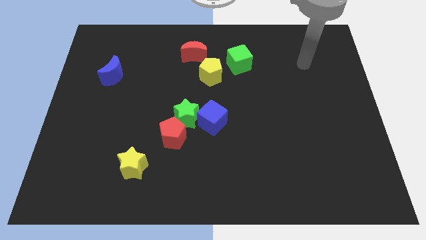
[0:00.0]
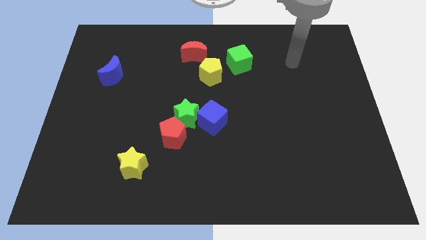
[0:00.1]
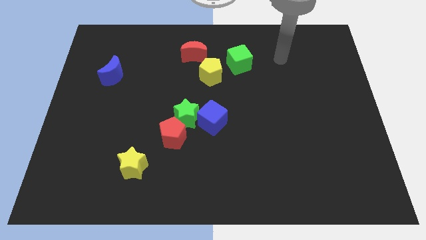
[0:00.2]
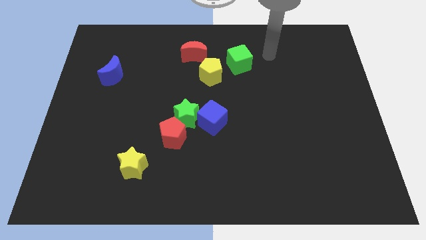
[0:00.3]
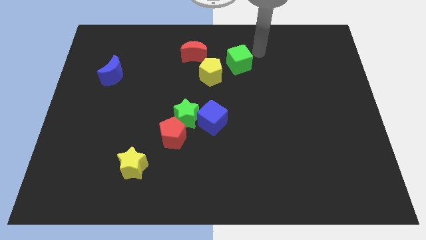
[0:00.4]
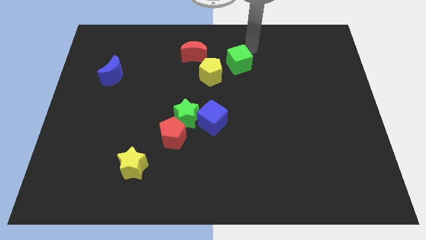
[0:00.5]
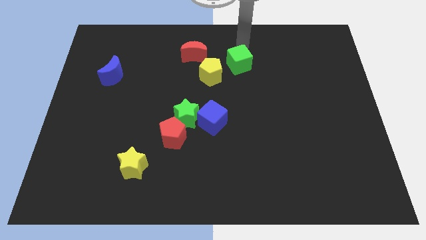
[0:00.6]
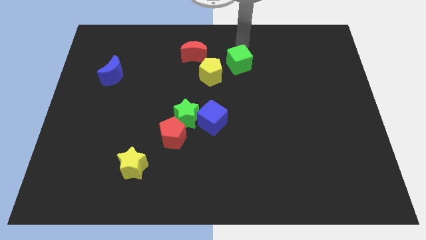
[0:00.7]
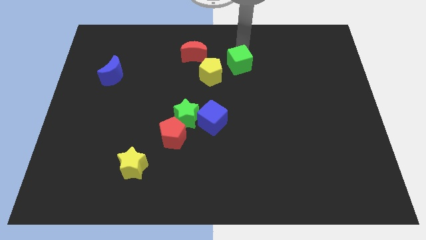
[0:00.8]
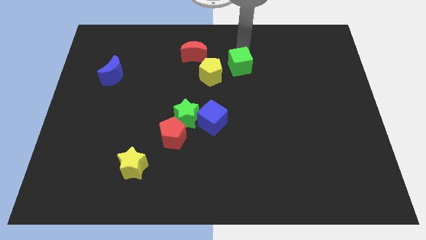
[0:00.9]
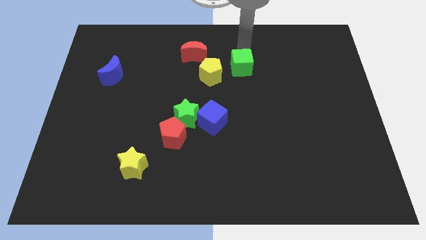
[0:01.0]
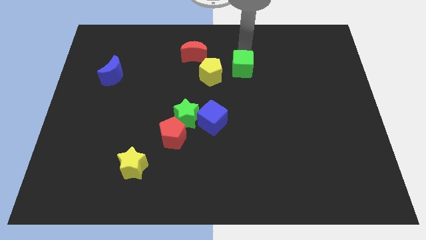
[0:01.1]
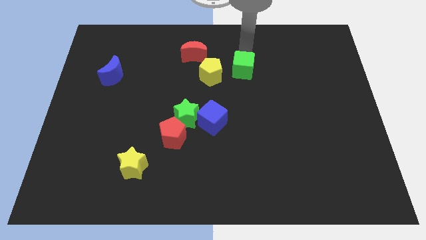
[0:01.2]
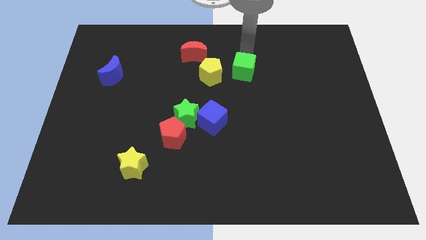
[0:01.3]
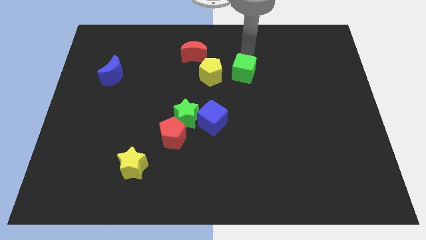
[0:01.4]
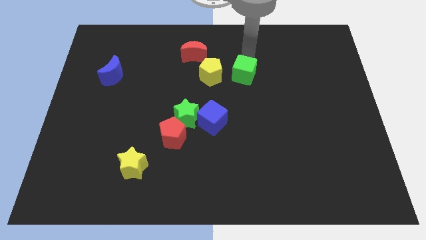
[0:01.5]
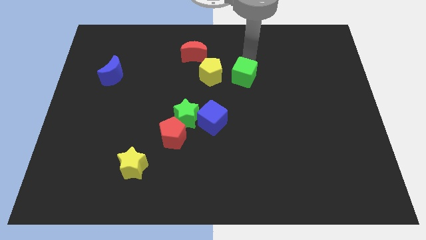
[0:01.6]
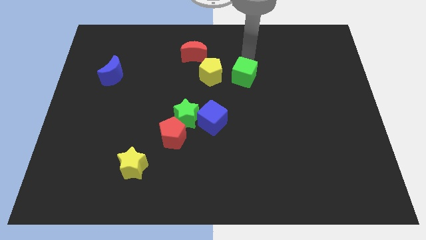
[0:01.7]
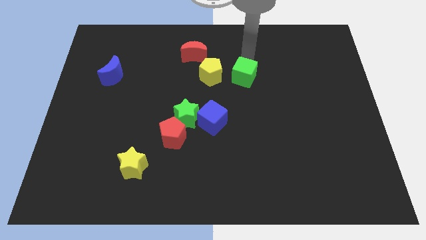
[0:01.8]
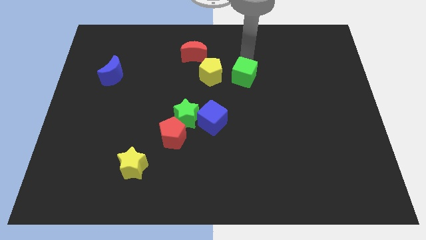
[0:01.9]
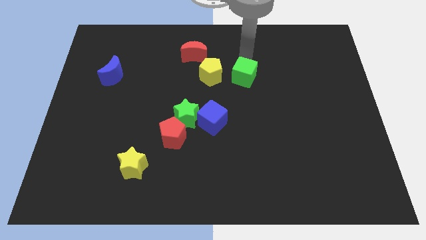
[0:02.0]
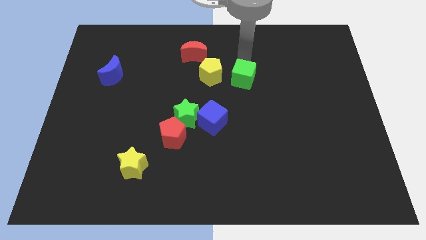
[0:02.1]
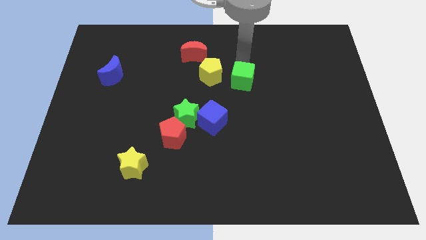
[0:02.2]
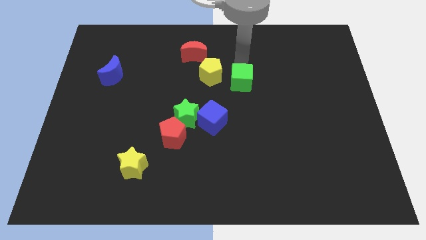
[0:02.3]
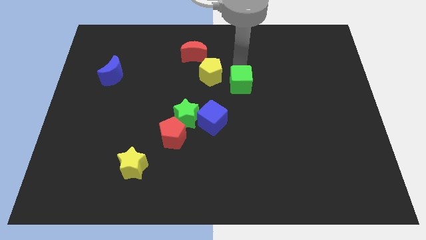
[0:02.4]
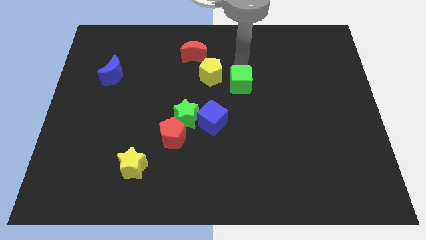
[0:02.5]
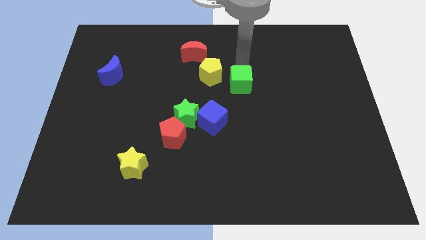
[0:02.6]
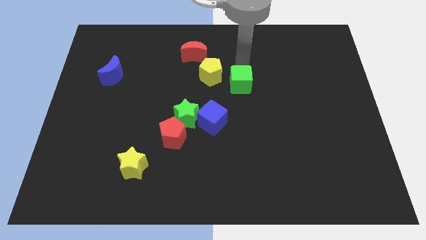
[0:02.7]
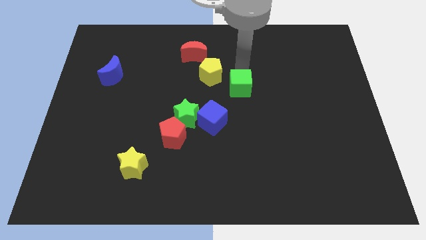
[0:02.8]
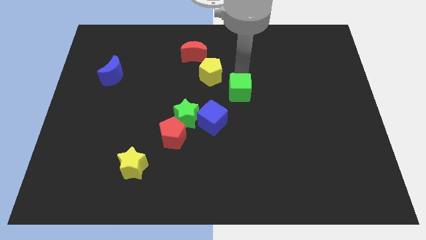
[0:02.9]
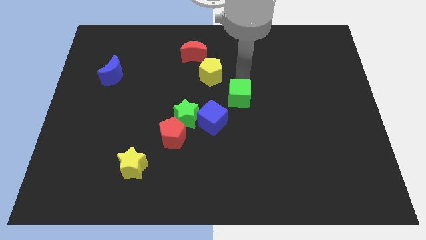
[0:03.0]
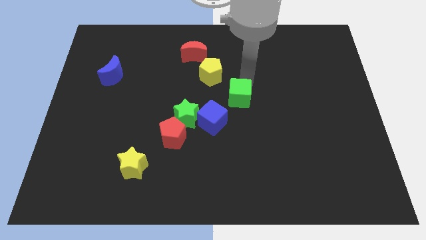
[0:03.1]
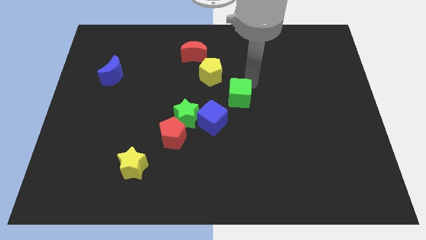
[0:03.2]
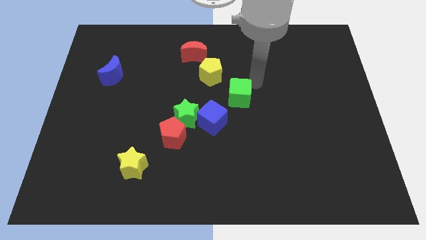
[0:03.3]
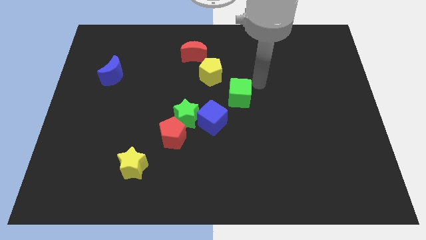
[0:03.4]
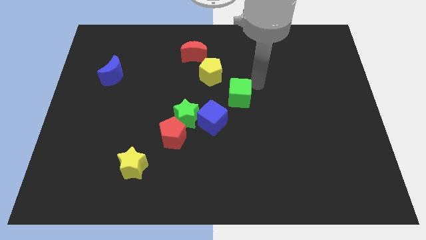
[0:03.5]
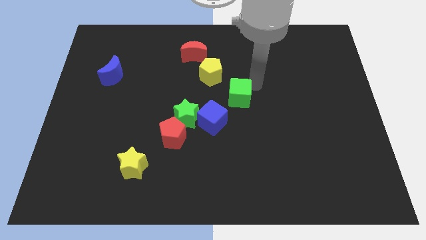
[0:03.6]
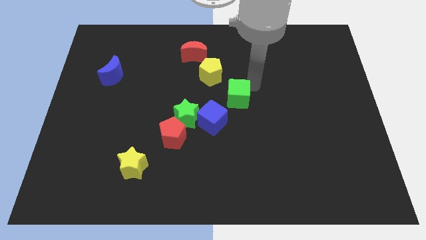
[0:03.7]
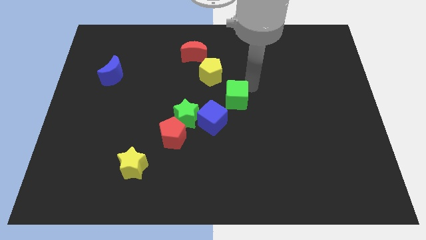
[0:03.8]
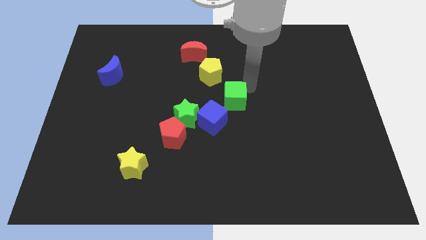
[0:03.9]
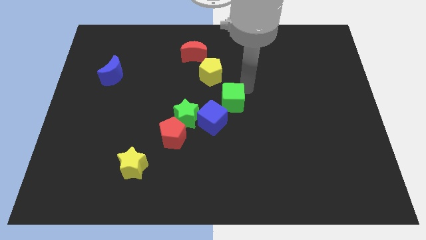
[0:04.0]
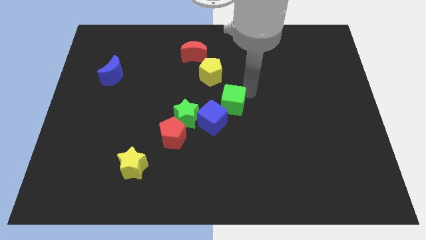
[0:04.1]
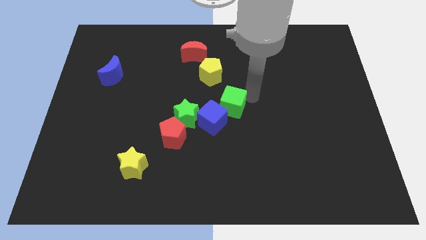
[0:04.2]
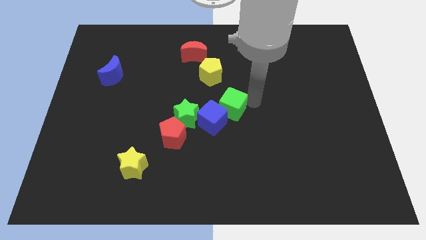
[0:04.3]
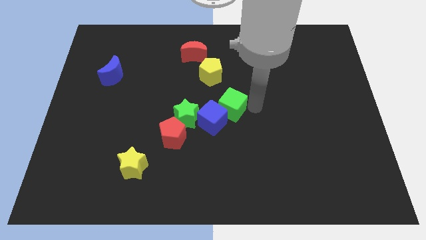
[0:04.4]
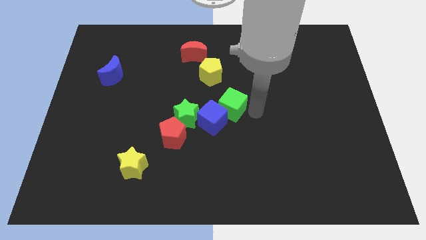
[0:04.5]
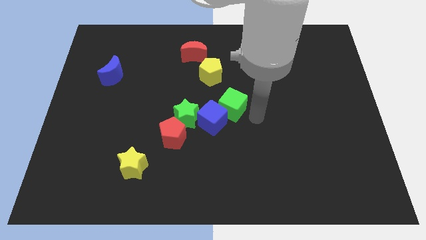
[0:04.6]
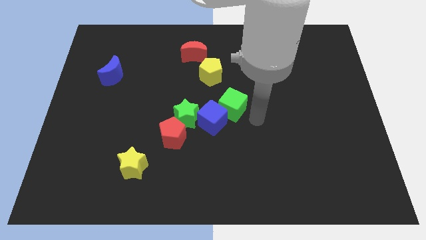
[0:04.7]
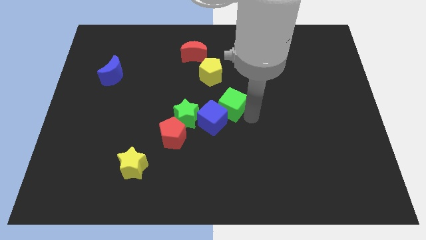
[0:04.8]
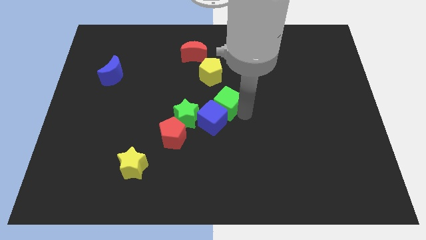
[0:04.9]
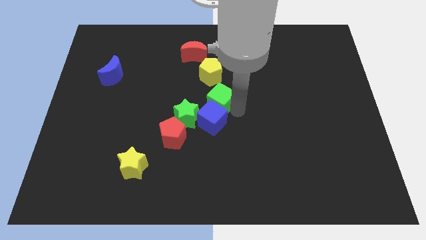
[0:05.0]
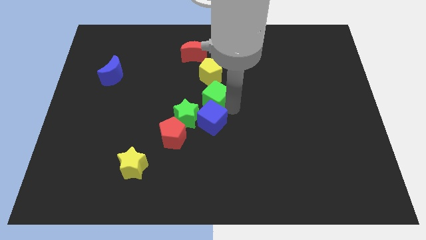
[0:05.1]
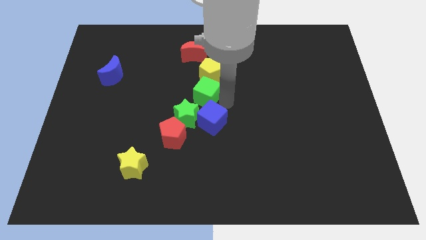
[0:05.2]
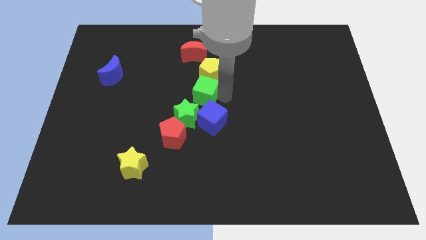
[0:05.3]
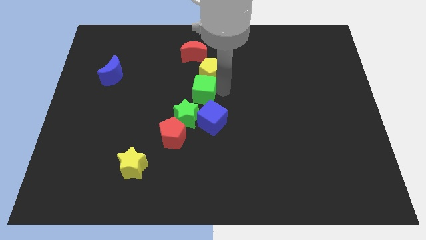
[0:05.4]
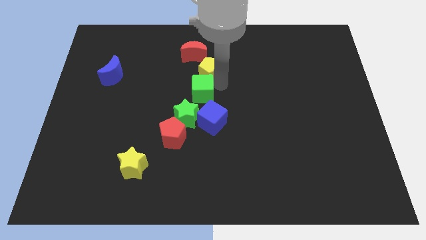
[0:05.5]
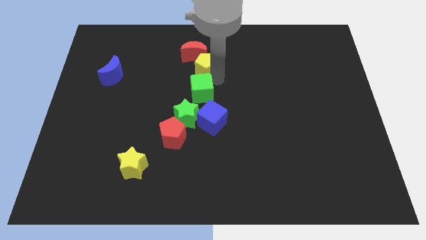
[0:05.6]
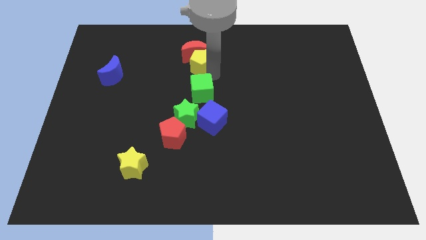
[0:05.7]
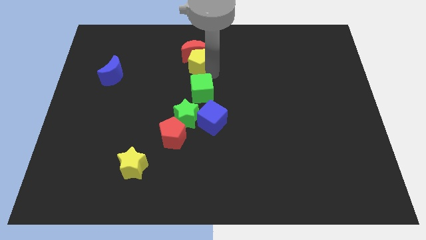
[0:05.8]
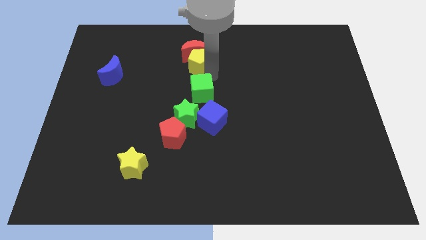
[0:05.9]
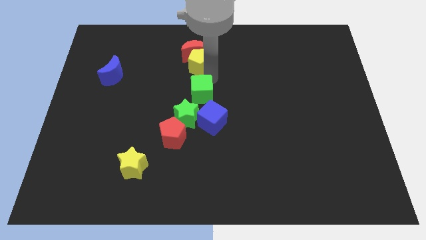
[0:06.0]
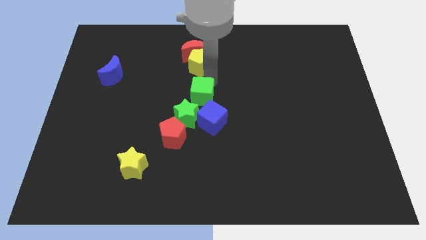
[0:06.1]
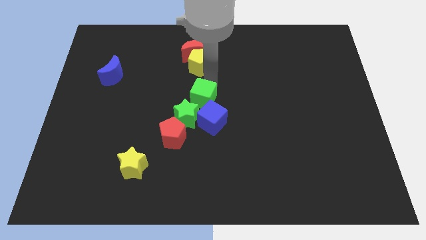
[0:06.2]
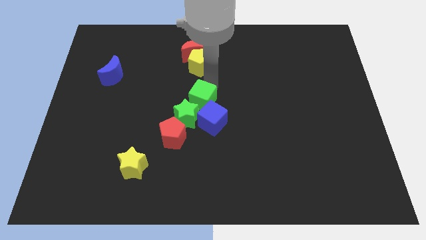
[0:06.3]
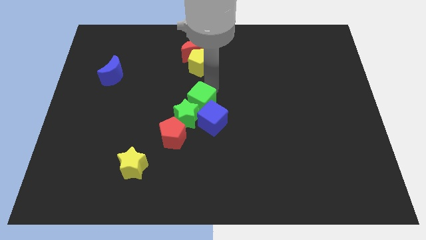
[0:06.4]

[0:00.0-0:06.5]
move the green cube to the green star

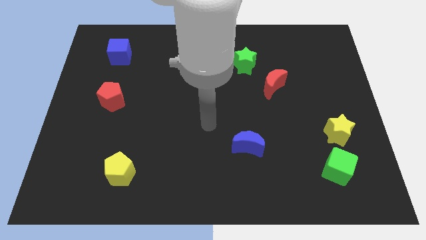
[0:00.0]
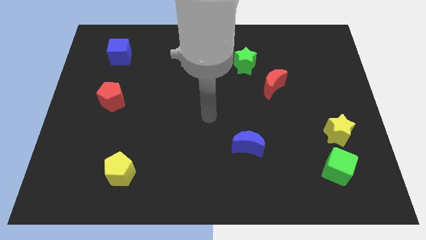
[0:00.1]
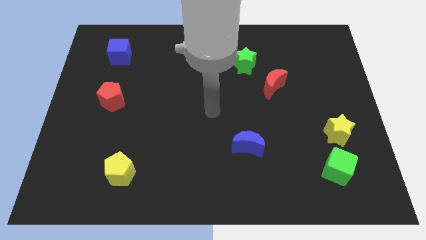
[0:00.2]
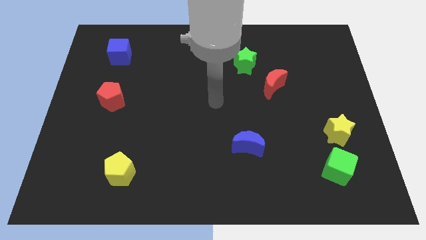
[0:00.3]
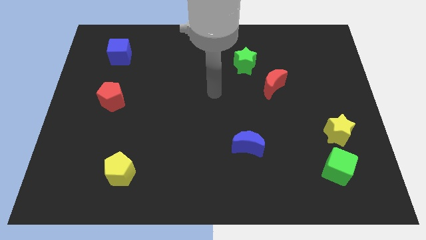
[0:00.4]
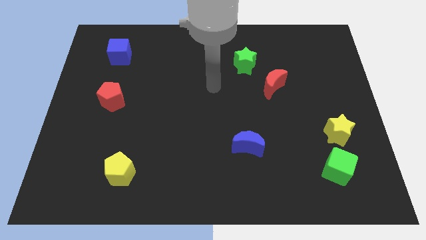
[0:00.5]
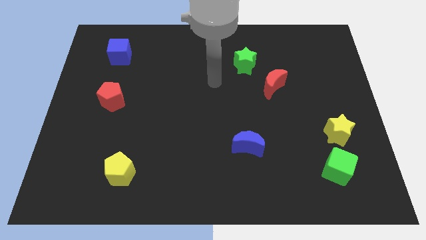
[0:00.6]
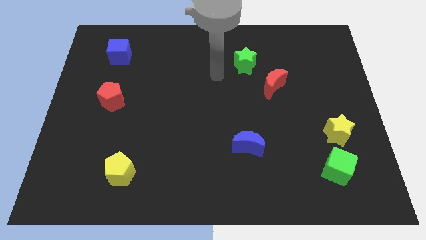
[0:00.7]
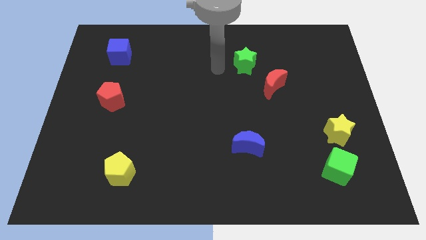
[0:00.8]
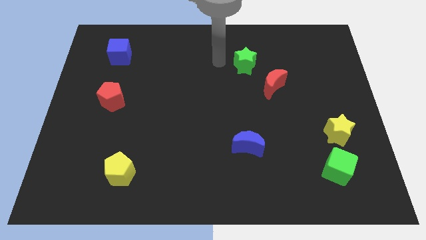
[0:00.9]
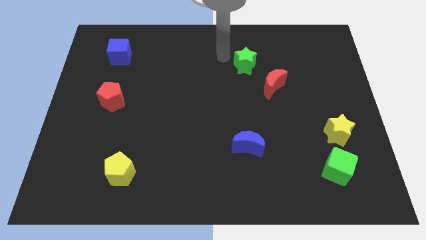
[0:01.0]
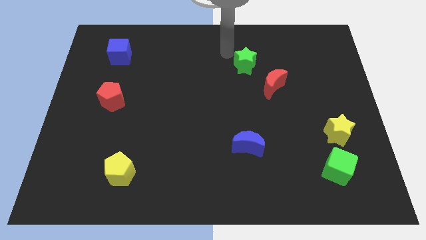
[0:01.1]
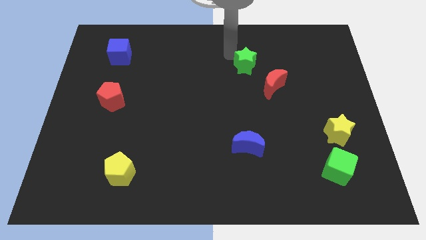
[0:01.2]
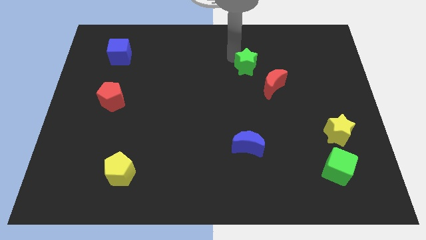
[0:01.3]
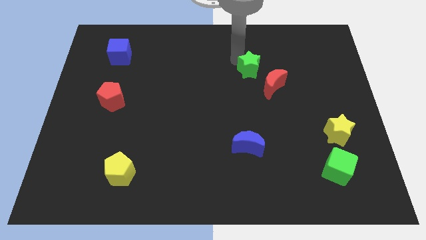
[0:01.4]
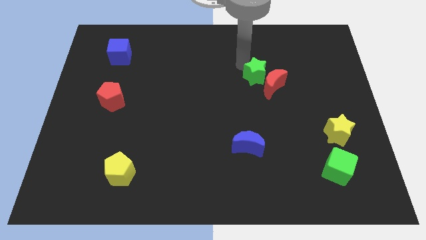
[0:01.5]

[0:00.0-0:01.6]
push the green star next to the red moon
